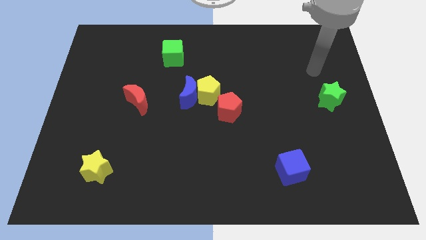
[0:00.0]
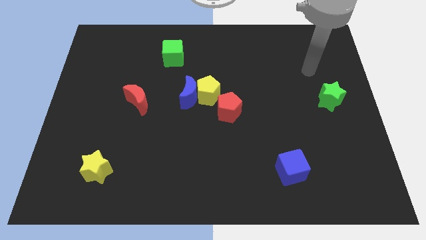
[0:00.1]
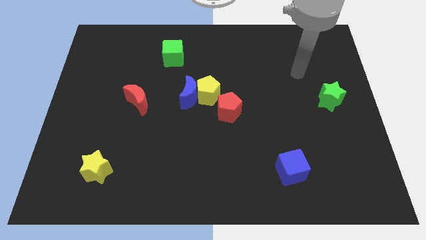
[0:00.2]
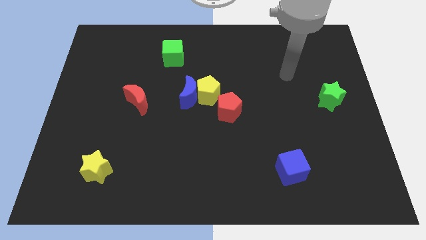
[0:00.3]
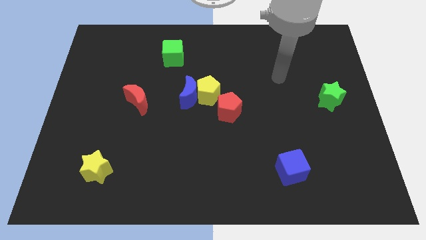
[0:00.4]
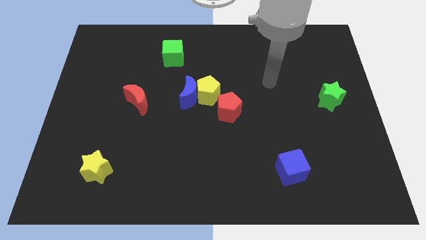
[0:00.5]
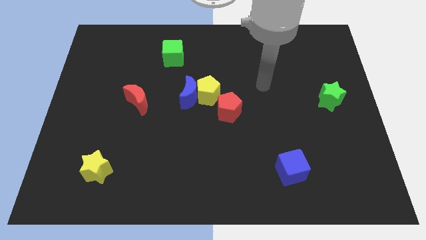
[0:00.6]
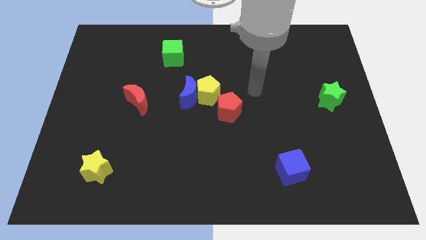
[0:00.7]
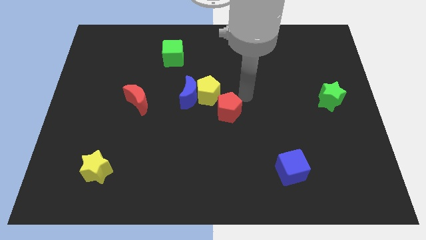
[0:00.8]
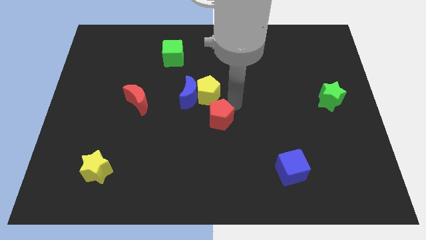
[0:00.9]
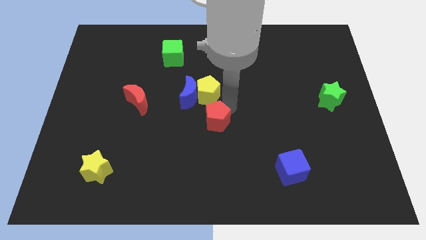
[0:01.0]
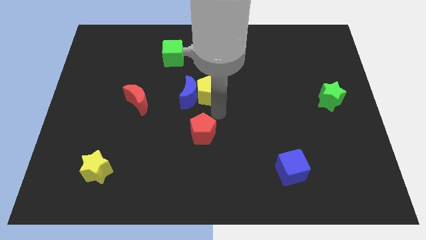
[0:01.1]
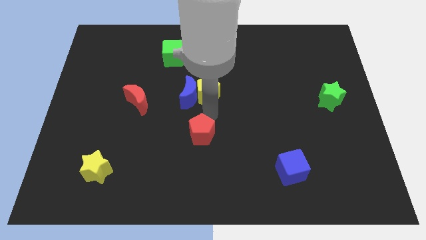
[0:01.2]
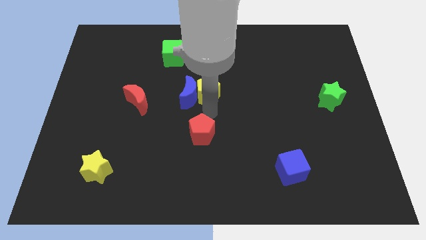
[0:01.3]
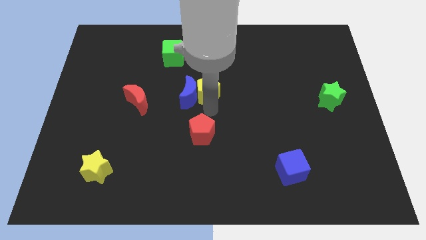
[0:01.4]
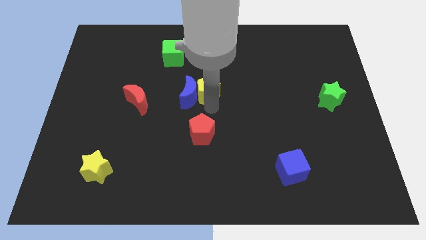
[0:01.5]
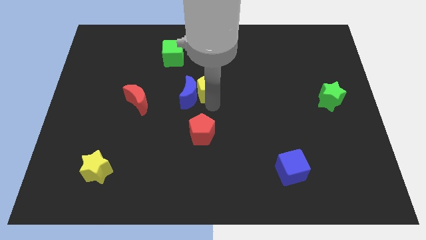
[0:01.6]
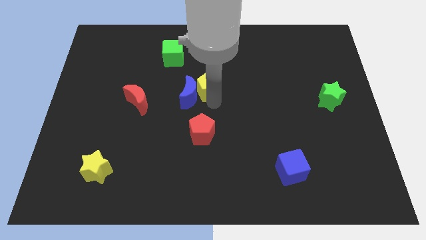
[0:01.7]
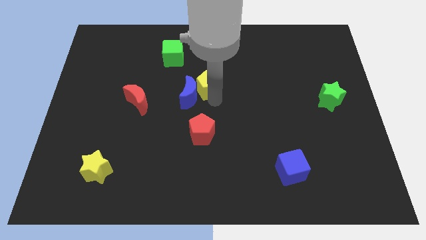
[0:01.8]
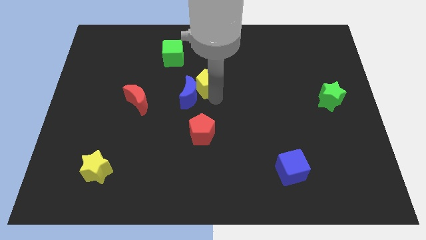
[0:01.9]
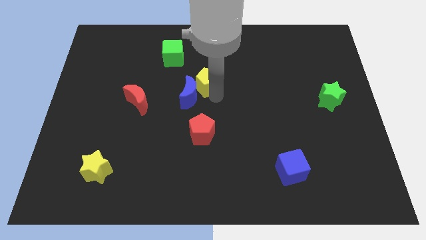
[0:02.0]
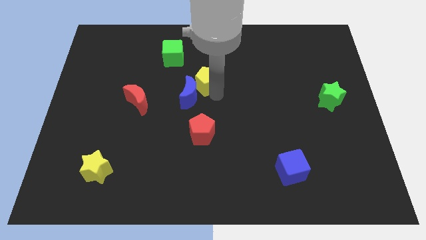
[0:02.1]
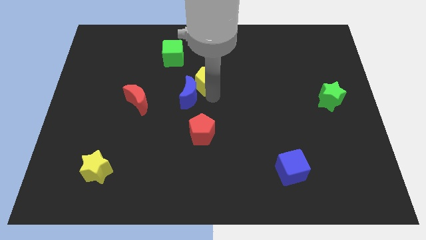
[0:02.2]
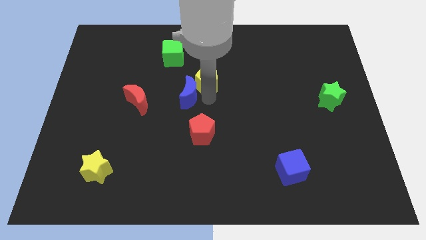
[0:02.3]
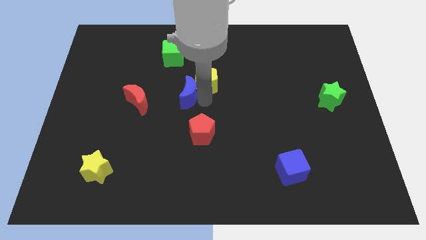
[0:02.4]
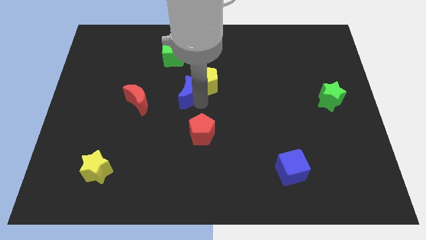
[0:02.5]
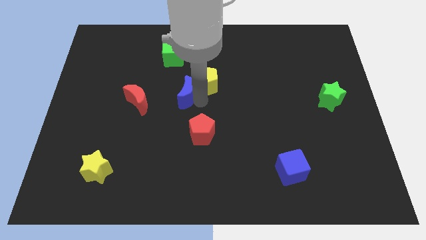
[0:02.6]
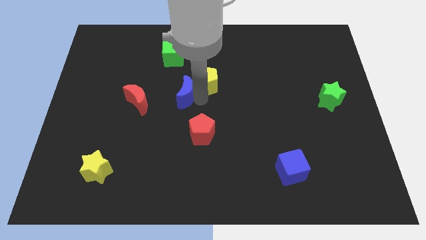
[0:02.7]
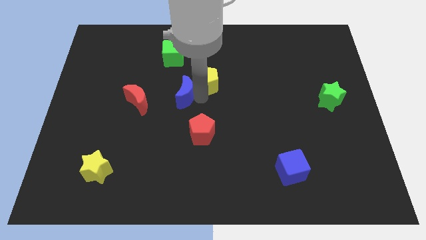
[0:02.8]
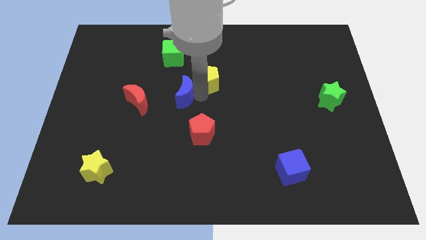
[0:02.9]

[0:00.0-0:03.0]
separate the yellow pentagon from the blue moon and red pentagon

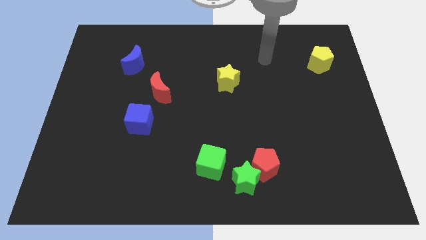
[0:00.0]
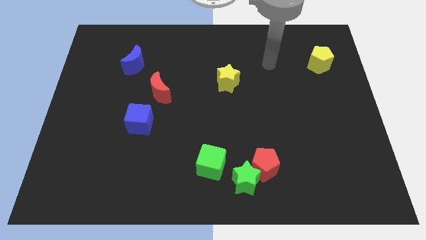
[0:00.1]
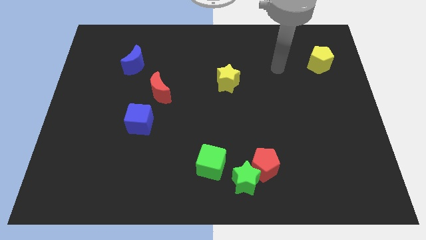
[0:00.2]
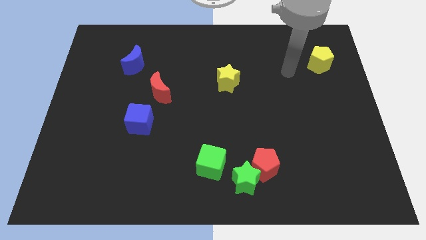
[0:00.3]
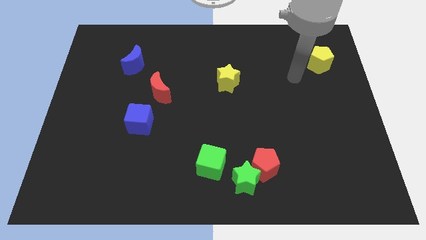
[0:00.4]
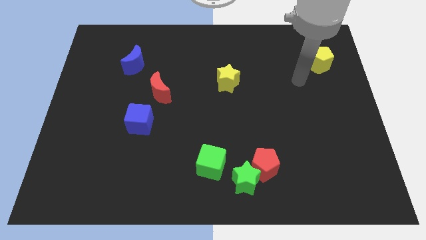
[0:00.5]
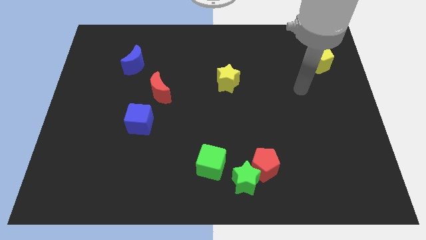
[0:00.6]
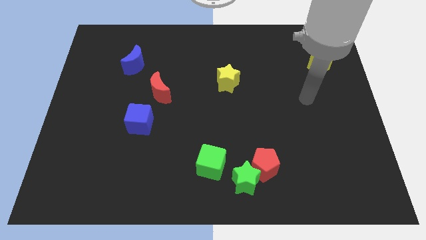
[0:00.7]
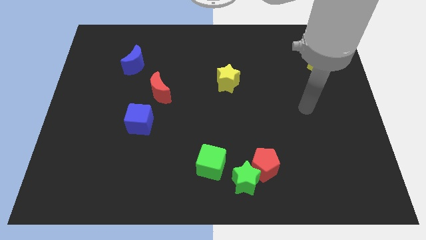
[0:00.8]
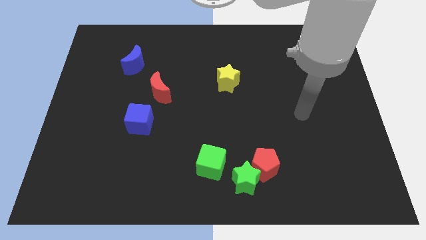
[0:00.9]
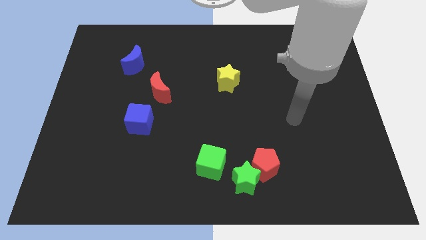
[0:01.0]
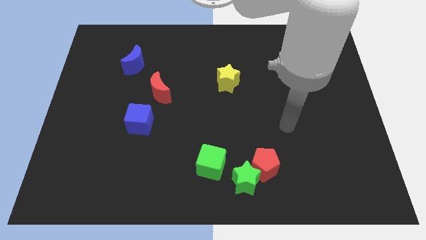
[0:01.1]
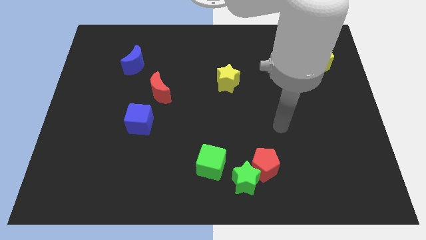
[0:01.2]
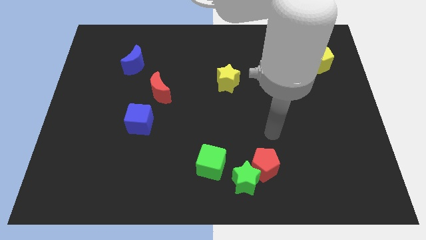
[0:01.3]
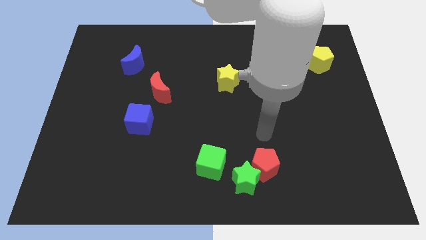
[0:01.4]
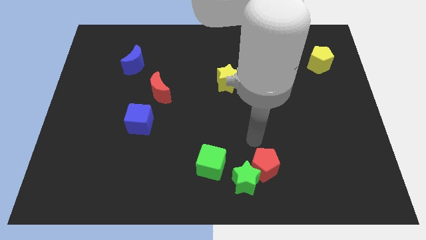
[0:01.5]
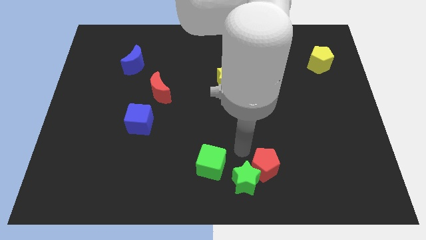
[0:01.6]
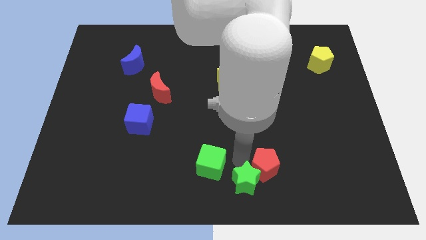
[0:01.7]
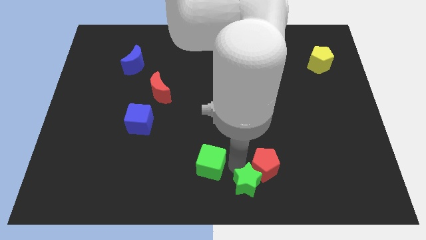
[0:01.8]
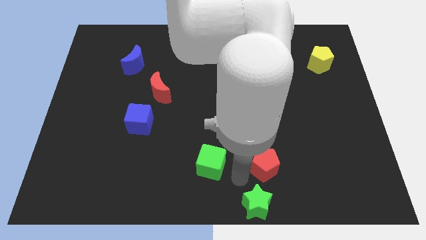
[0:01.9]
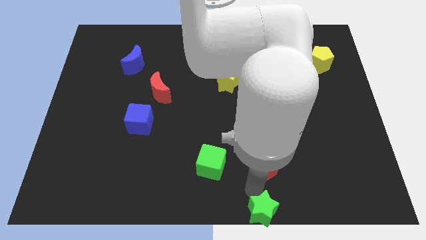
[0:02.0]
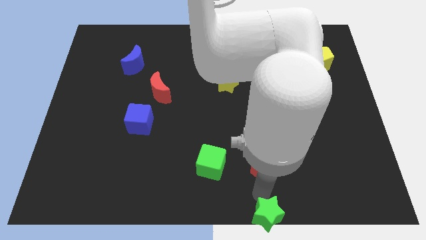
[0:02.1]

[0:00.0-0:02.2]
pull the red pentagon apart from the green star

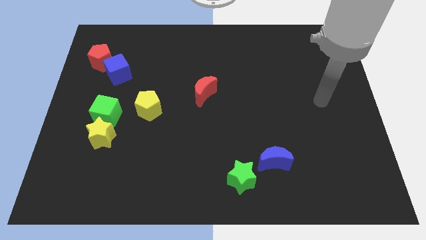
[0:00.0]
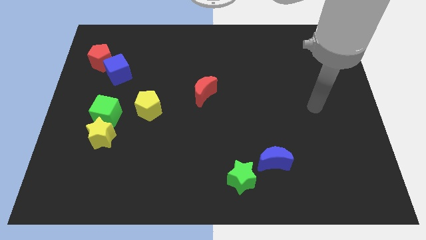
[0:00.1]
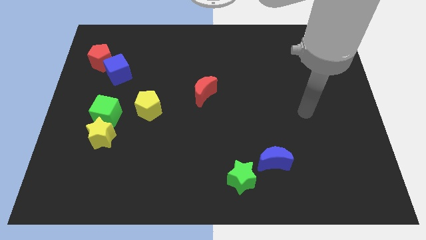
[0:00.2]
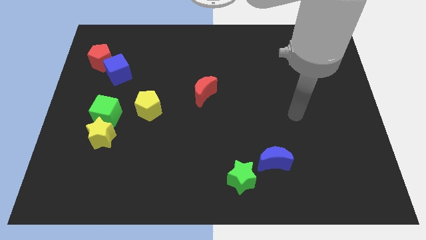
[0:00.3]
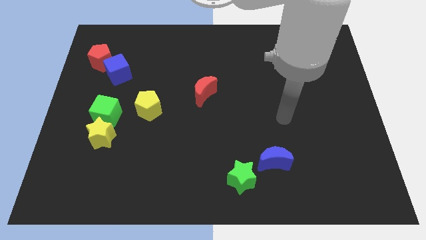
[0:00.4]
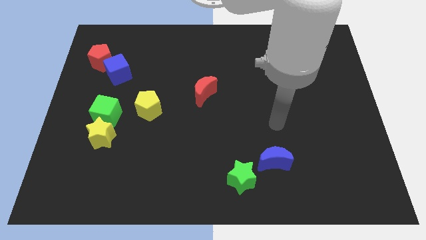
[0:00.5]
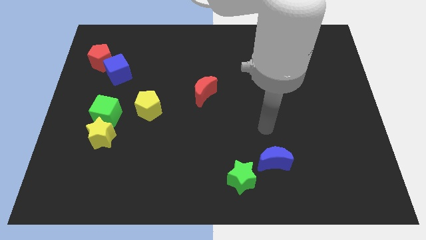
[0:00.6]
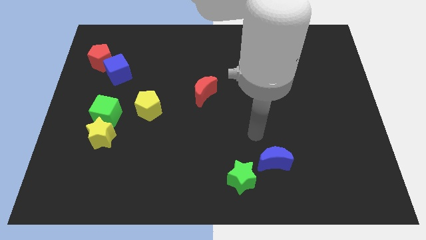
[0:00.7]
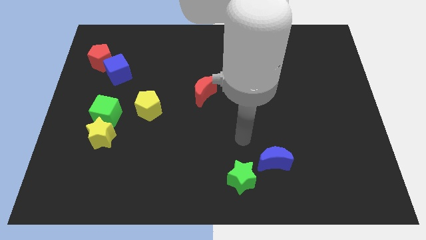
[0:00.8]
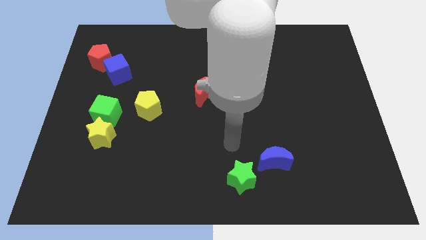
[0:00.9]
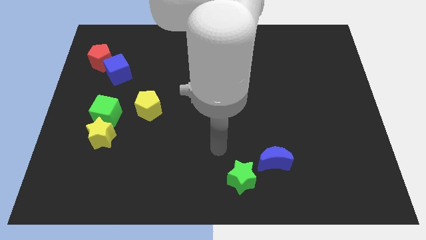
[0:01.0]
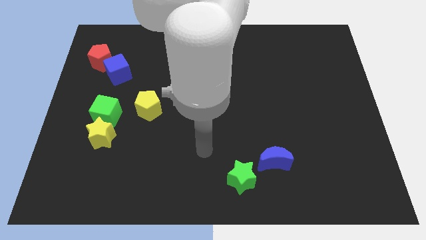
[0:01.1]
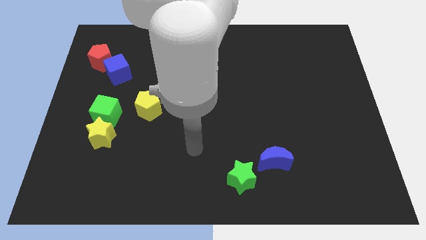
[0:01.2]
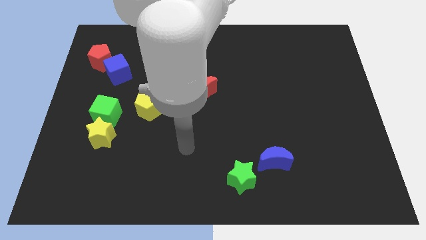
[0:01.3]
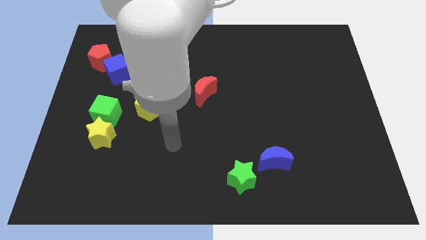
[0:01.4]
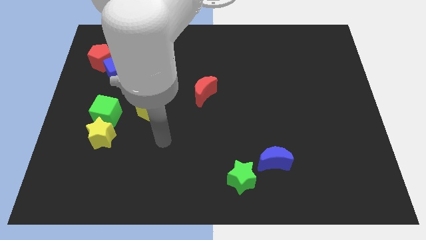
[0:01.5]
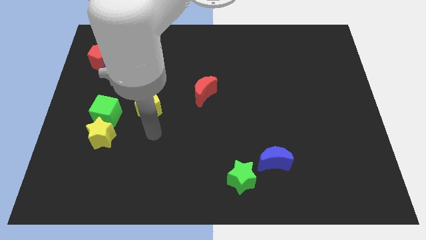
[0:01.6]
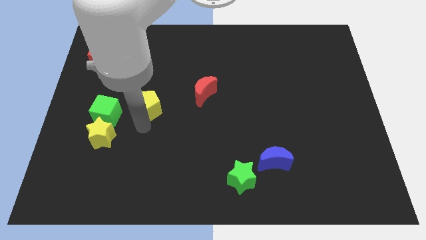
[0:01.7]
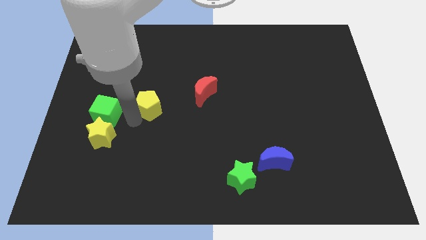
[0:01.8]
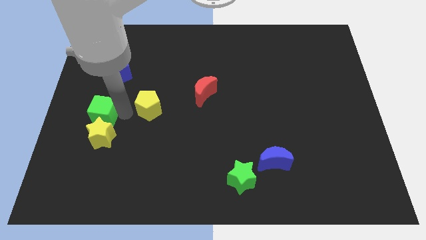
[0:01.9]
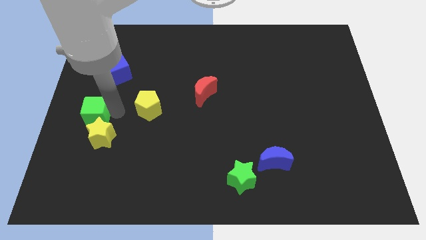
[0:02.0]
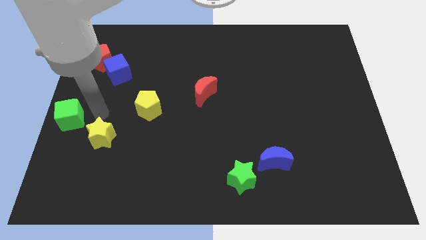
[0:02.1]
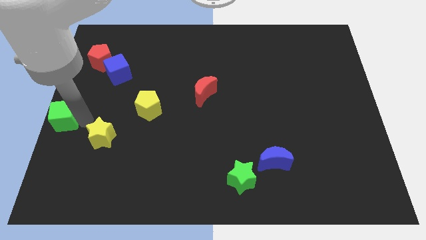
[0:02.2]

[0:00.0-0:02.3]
pull the yellow star apart from the green cube
